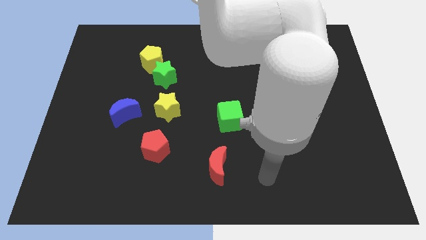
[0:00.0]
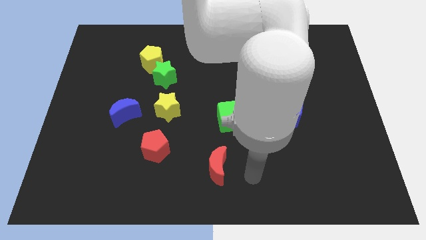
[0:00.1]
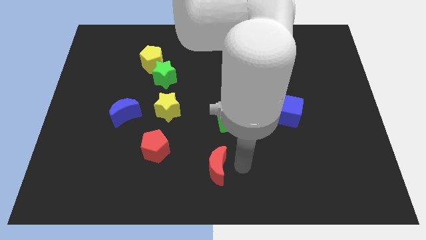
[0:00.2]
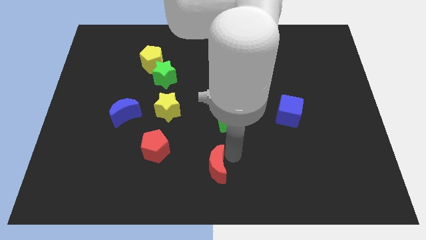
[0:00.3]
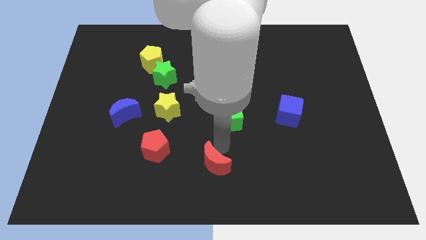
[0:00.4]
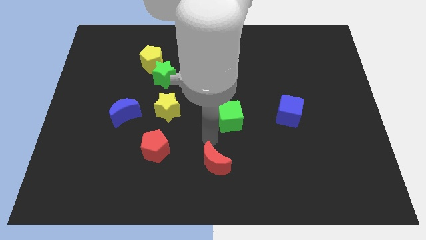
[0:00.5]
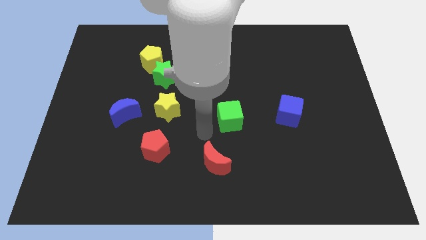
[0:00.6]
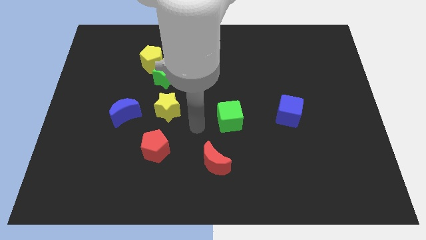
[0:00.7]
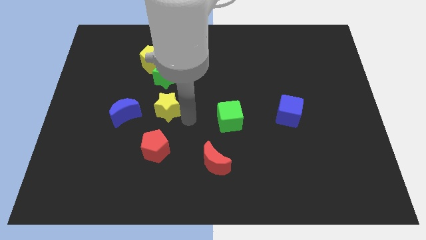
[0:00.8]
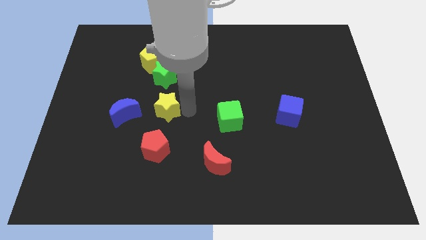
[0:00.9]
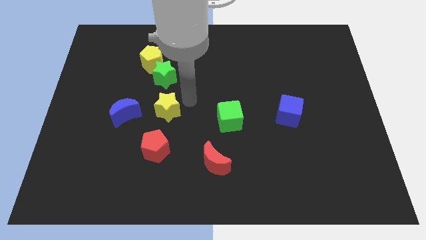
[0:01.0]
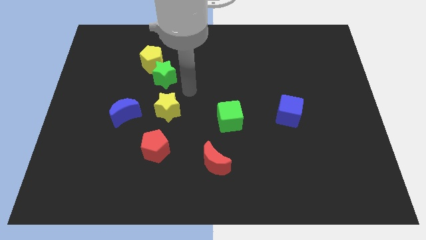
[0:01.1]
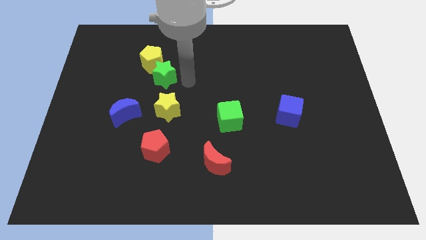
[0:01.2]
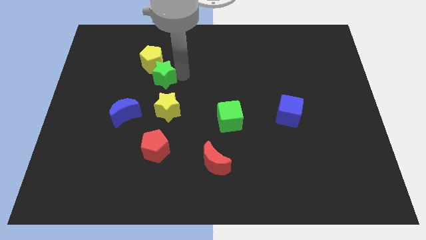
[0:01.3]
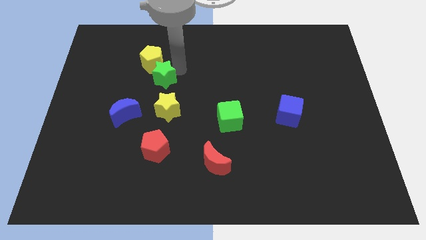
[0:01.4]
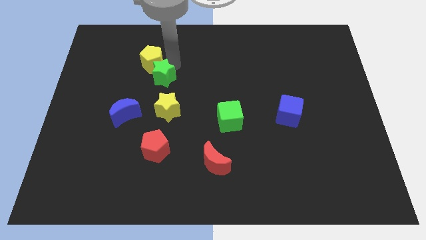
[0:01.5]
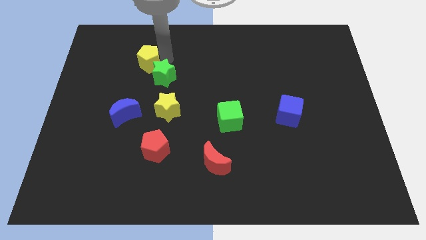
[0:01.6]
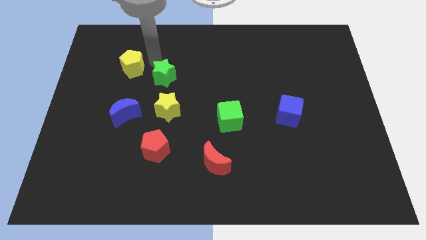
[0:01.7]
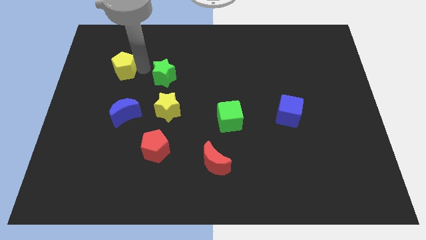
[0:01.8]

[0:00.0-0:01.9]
separate the green star from the yellow pentagon

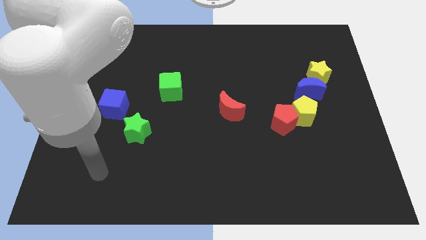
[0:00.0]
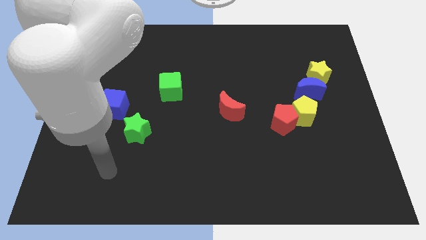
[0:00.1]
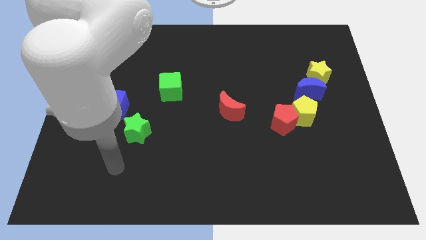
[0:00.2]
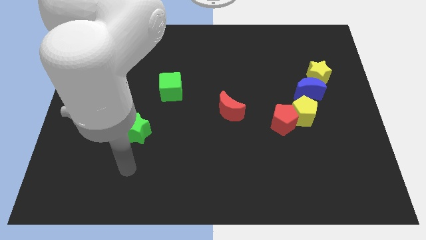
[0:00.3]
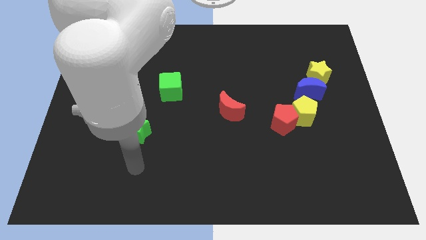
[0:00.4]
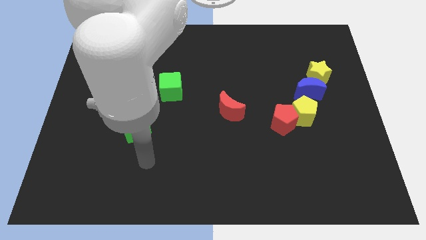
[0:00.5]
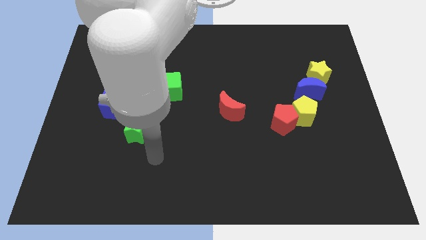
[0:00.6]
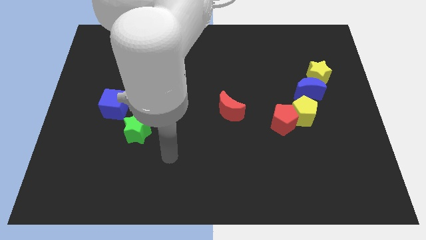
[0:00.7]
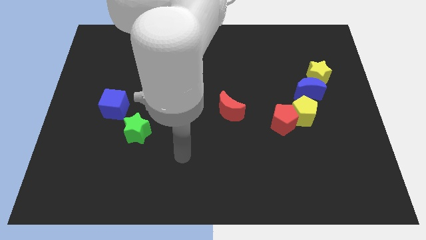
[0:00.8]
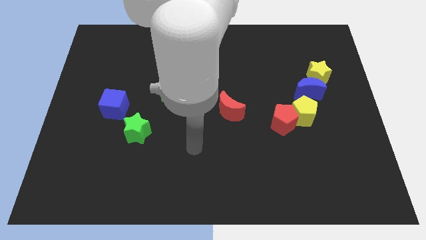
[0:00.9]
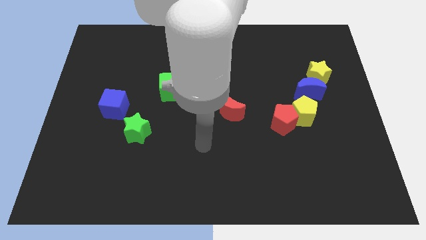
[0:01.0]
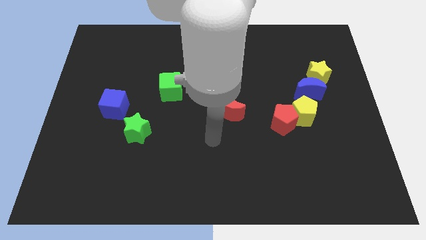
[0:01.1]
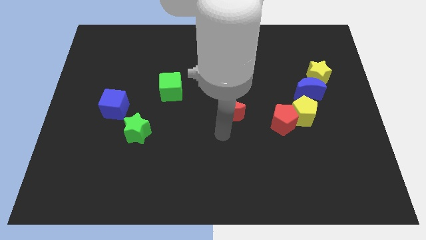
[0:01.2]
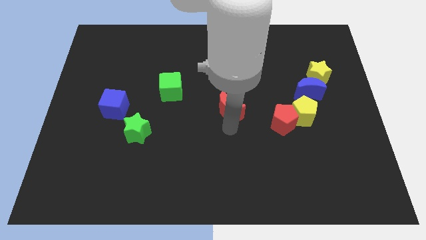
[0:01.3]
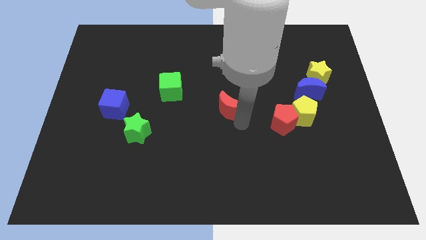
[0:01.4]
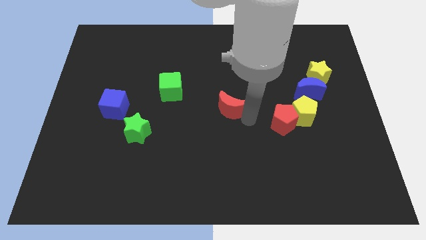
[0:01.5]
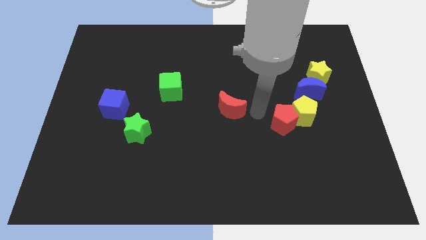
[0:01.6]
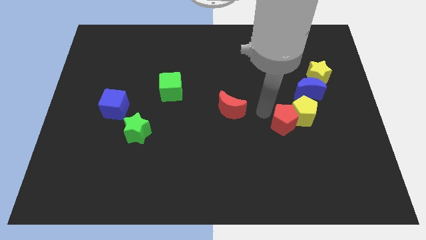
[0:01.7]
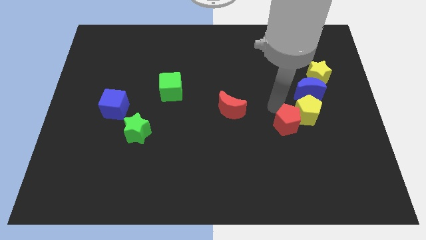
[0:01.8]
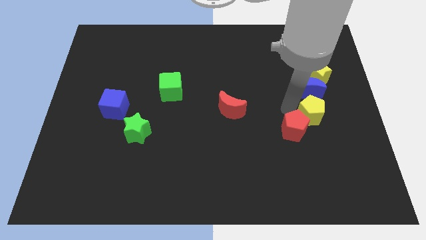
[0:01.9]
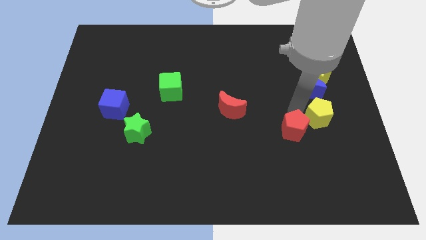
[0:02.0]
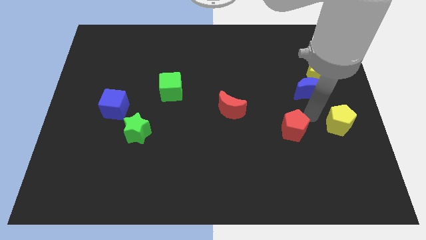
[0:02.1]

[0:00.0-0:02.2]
move the red pentagon away from the yellow pentagon

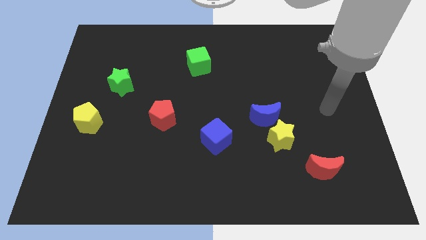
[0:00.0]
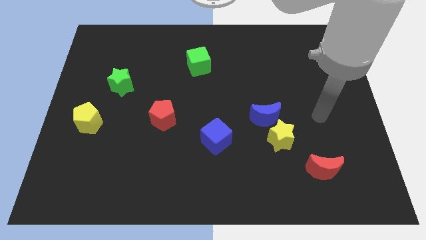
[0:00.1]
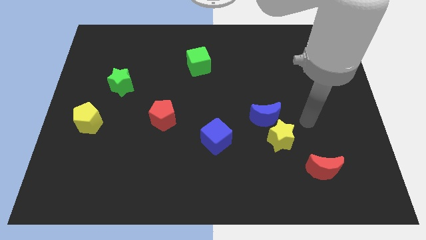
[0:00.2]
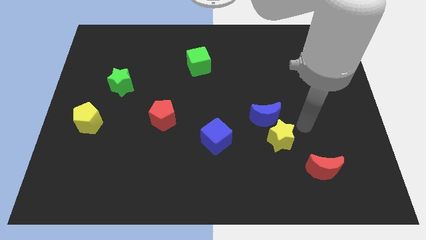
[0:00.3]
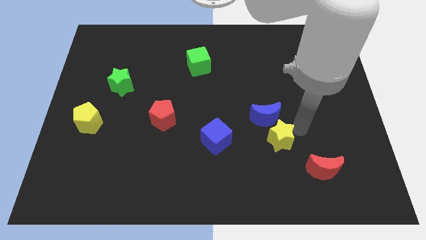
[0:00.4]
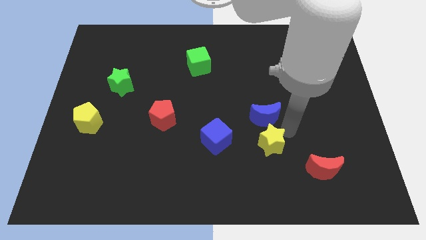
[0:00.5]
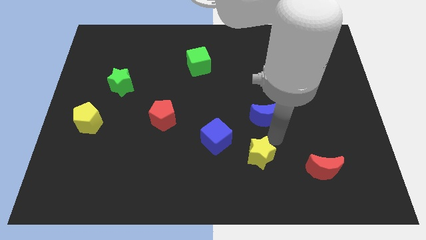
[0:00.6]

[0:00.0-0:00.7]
separate the blue moon from the yellow star

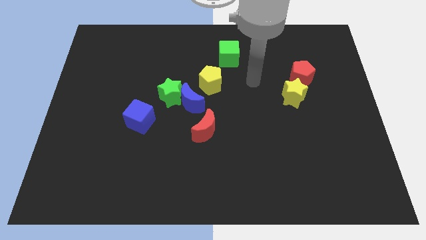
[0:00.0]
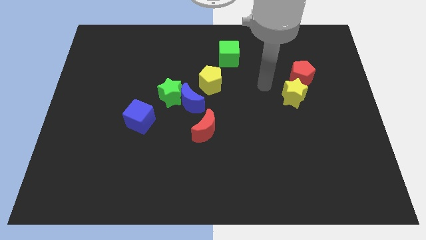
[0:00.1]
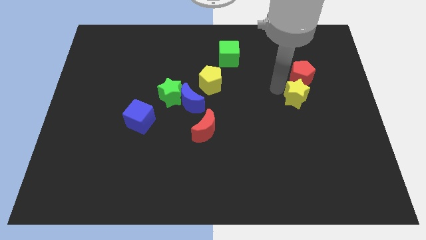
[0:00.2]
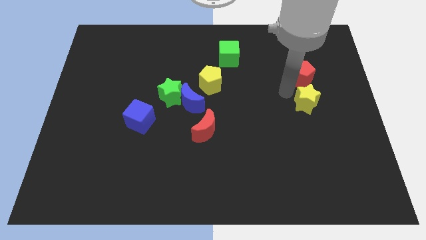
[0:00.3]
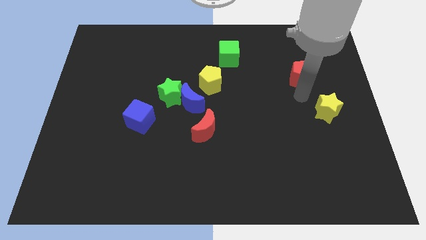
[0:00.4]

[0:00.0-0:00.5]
pull the red pentagon apart from the yellow star

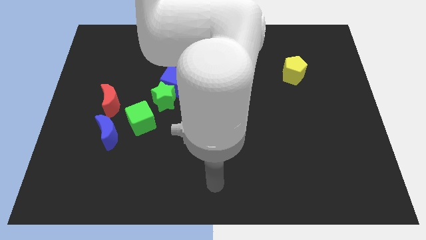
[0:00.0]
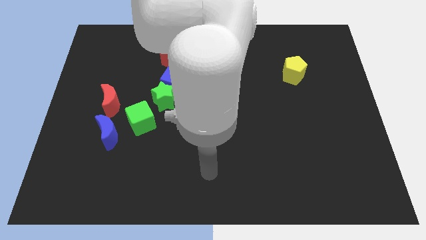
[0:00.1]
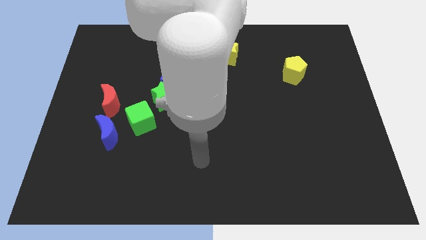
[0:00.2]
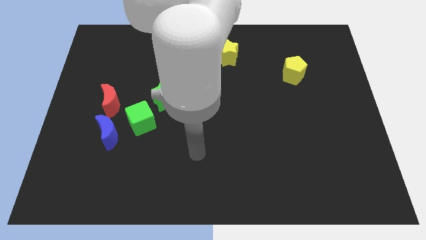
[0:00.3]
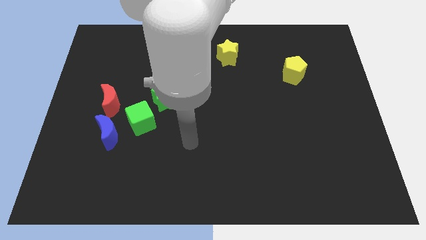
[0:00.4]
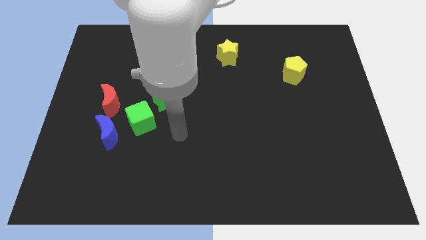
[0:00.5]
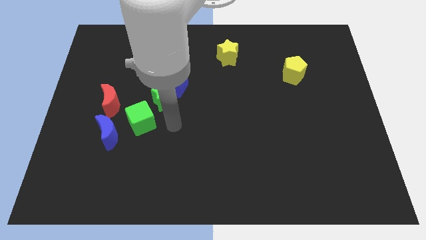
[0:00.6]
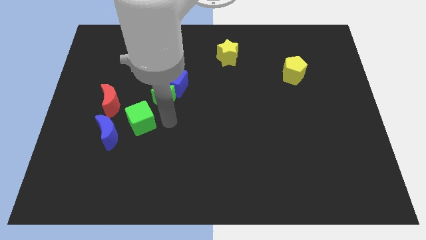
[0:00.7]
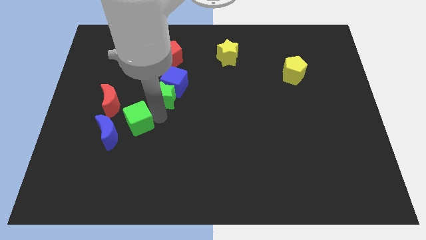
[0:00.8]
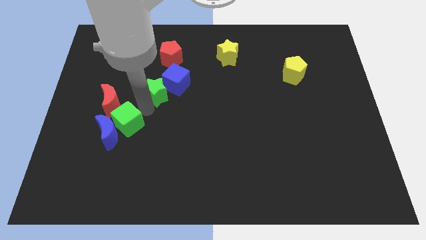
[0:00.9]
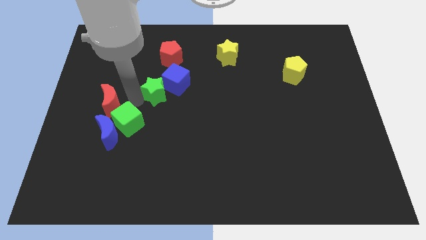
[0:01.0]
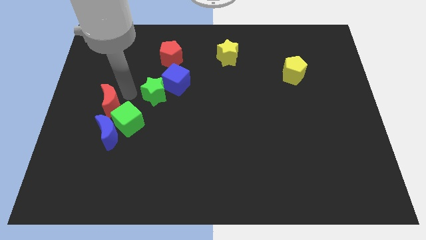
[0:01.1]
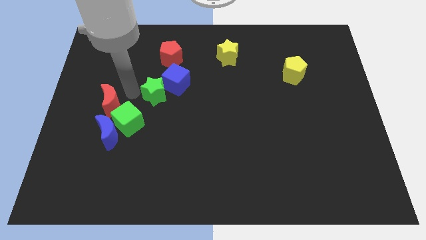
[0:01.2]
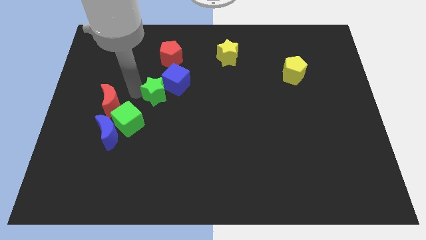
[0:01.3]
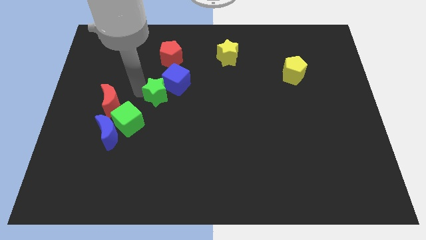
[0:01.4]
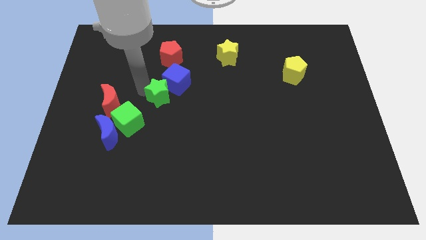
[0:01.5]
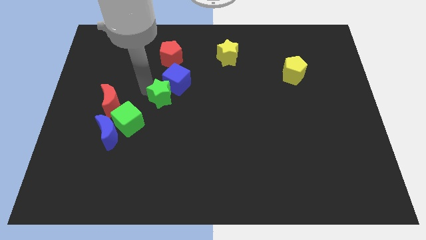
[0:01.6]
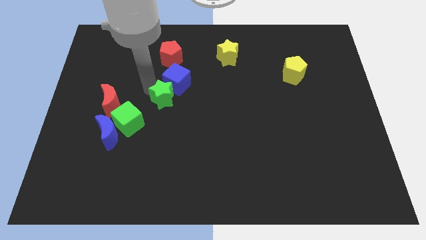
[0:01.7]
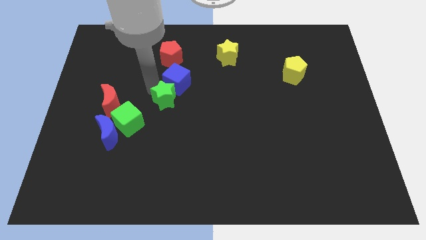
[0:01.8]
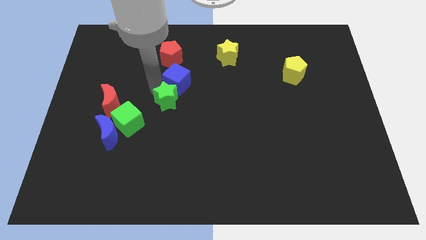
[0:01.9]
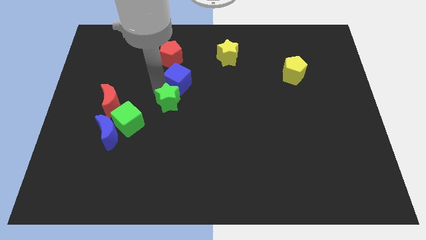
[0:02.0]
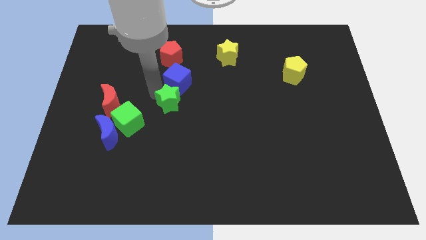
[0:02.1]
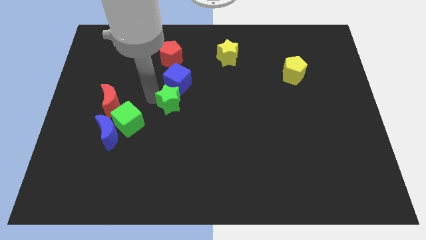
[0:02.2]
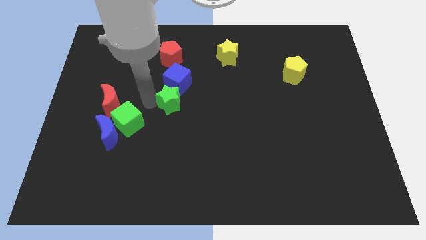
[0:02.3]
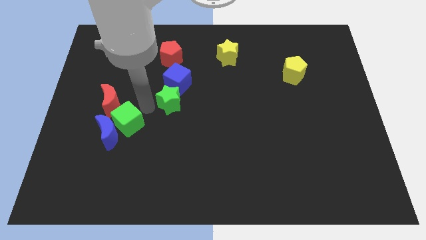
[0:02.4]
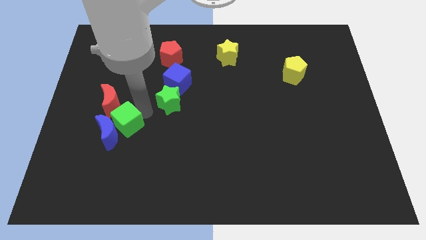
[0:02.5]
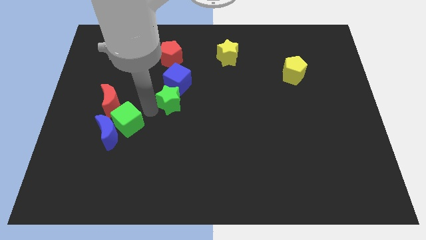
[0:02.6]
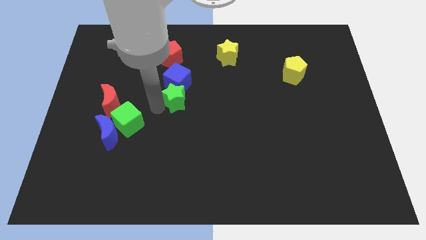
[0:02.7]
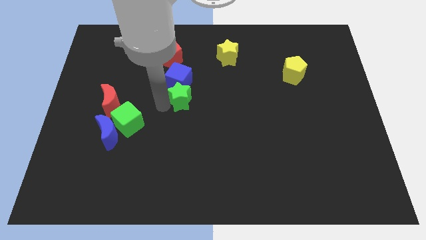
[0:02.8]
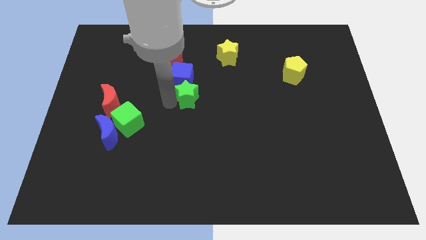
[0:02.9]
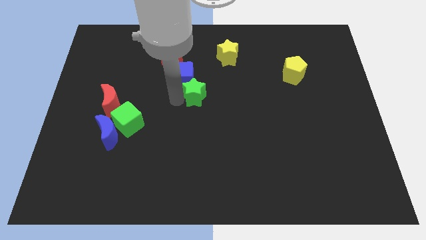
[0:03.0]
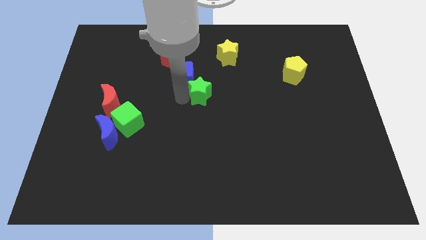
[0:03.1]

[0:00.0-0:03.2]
separate the green star from the blue cube and green cube

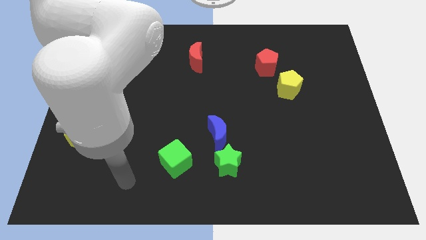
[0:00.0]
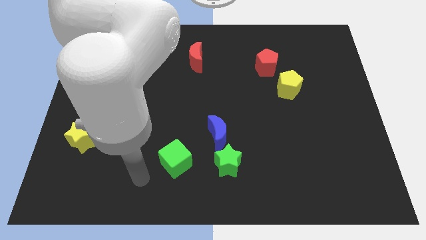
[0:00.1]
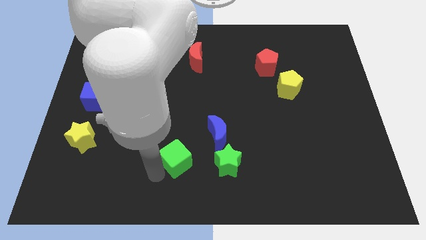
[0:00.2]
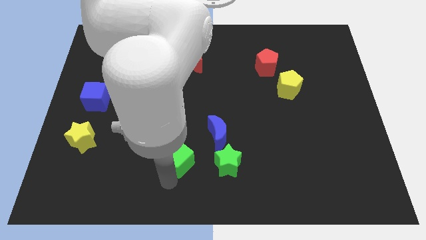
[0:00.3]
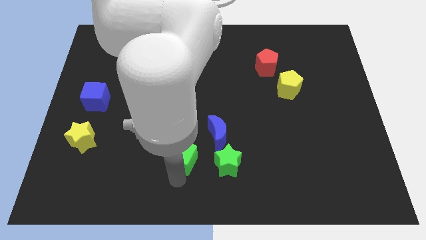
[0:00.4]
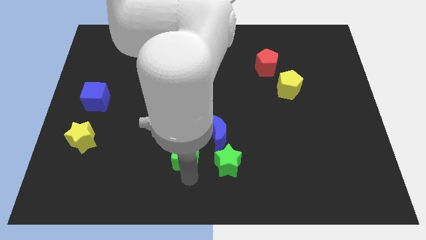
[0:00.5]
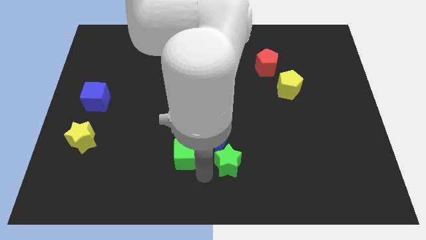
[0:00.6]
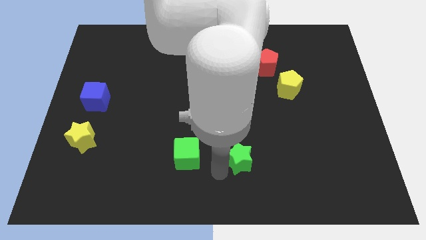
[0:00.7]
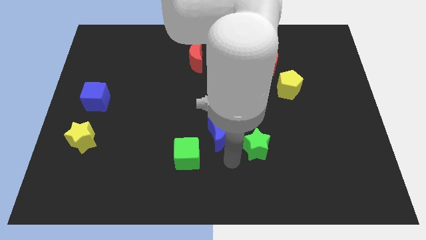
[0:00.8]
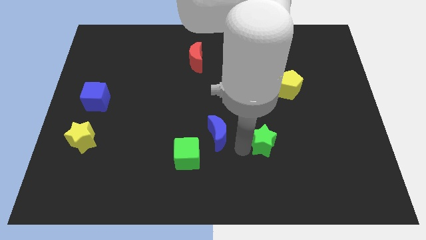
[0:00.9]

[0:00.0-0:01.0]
move the blue moon away from the green star
